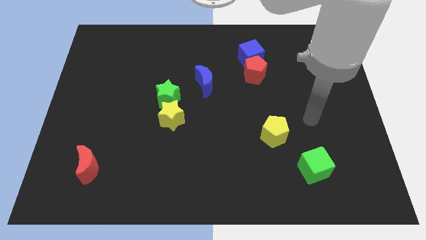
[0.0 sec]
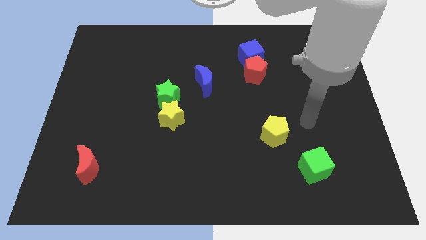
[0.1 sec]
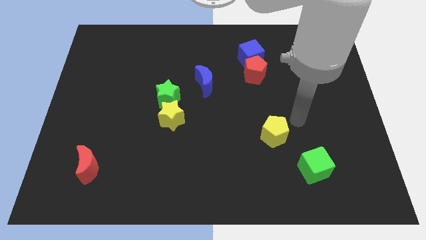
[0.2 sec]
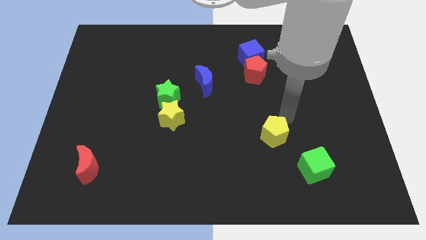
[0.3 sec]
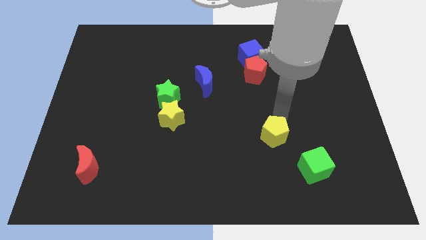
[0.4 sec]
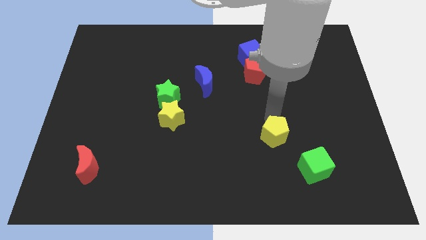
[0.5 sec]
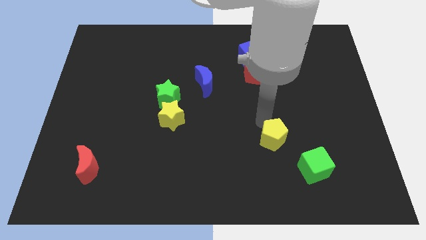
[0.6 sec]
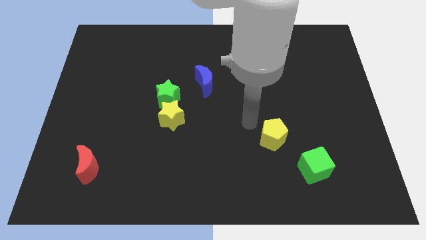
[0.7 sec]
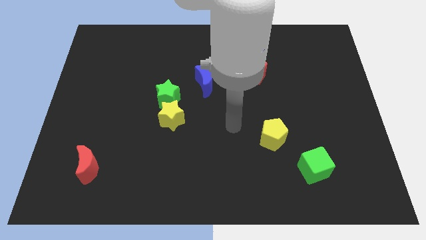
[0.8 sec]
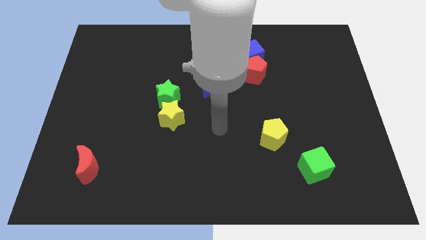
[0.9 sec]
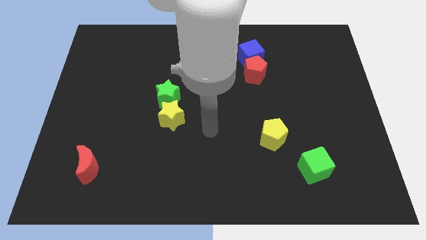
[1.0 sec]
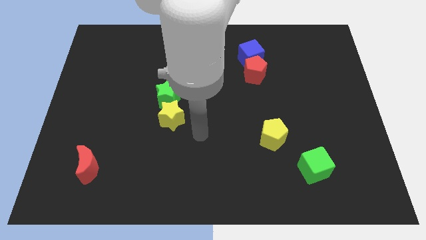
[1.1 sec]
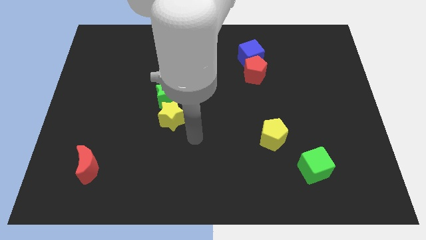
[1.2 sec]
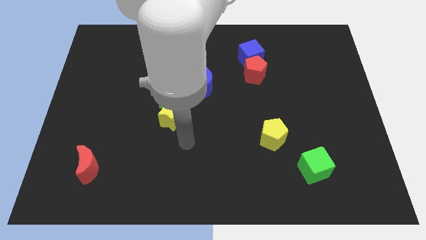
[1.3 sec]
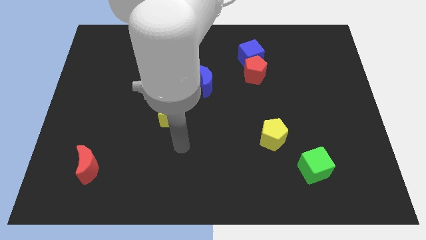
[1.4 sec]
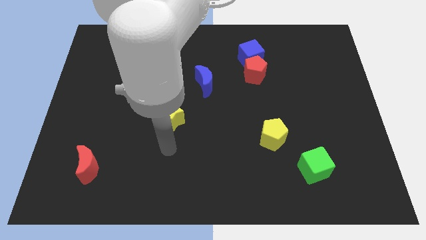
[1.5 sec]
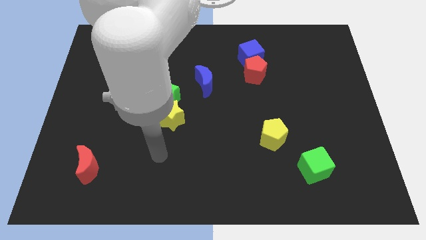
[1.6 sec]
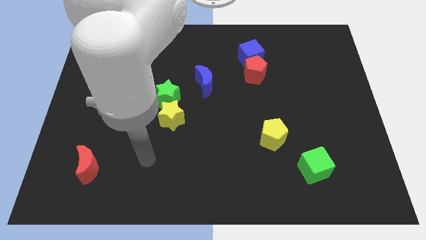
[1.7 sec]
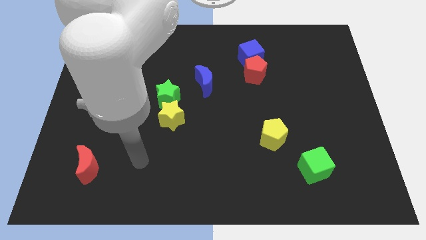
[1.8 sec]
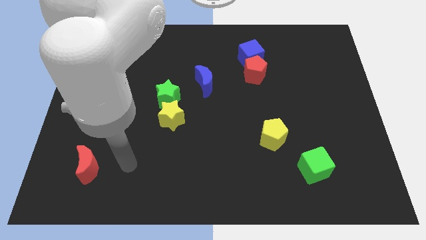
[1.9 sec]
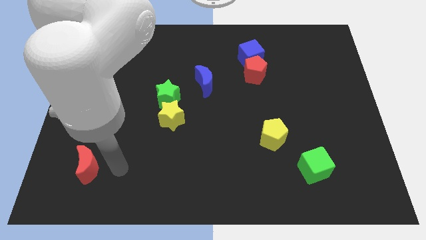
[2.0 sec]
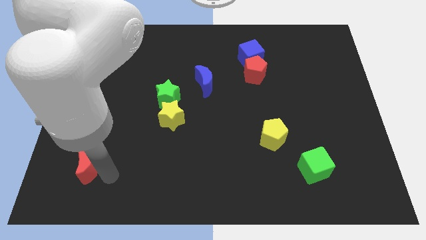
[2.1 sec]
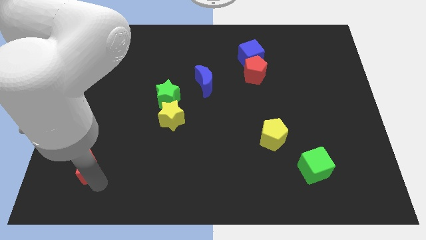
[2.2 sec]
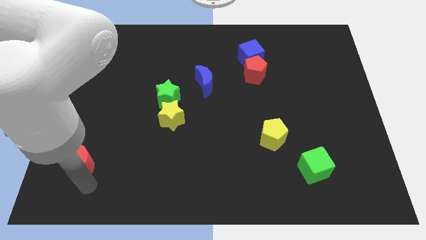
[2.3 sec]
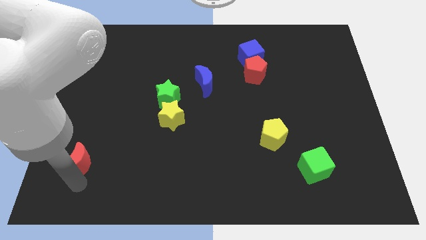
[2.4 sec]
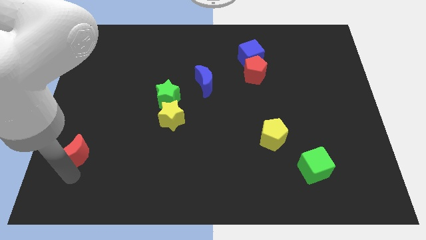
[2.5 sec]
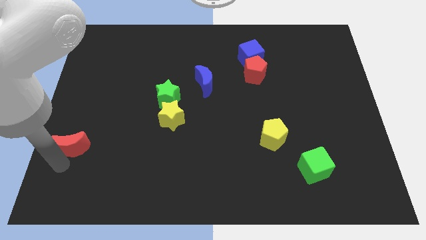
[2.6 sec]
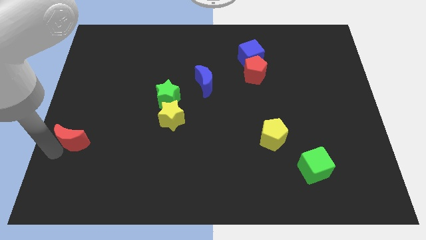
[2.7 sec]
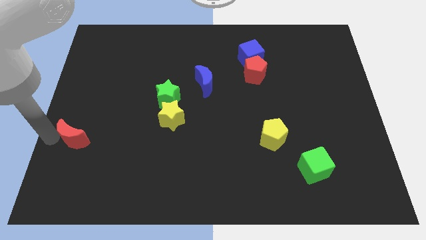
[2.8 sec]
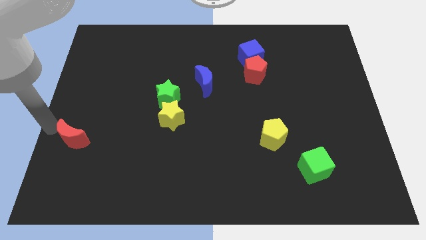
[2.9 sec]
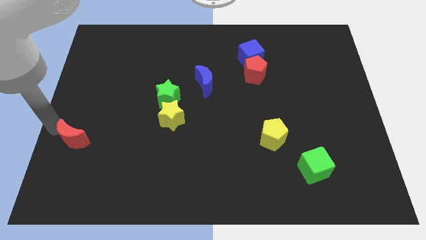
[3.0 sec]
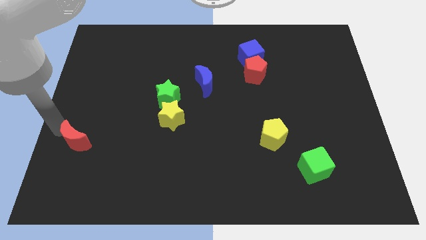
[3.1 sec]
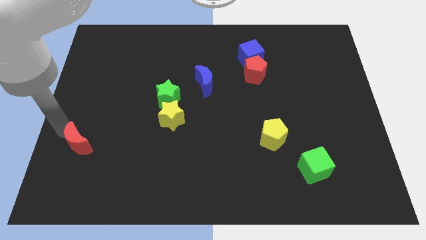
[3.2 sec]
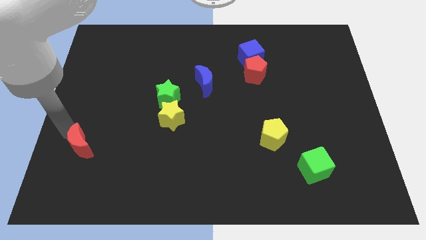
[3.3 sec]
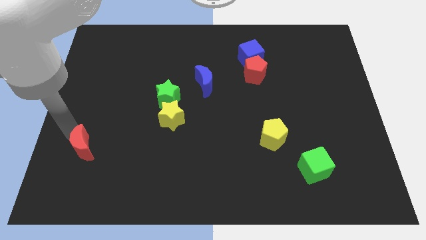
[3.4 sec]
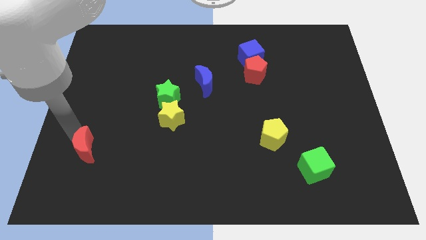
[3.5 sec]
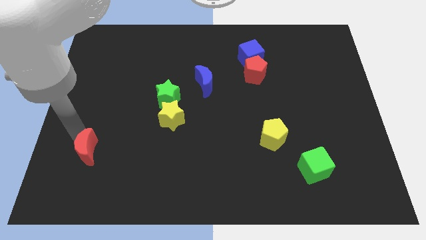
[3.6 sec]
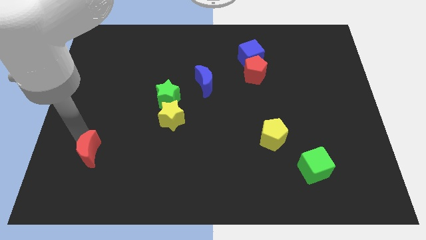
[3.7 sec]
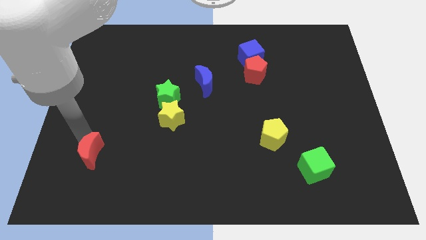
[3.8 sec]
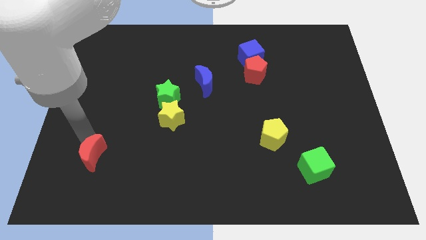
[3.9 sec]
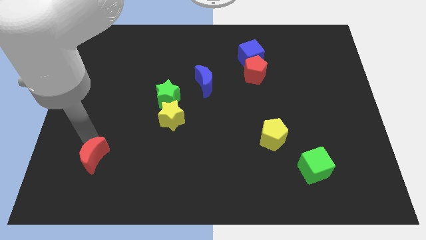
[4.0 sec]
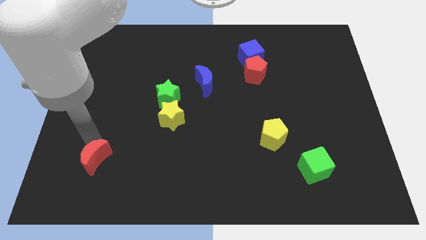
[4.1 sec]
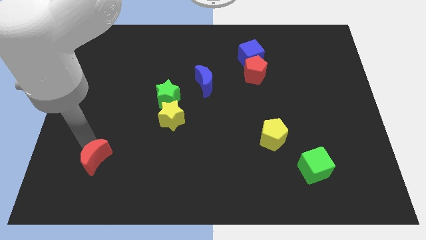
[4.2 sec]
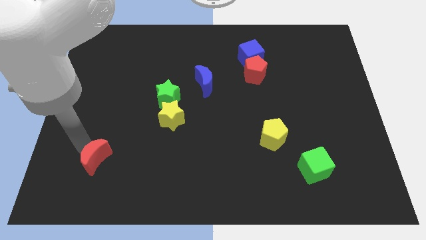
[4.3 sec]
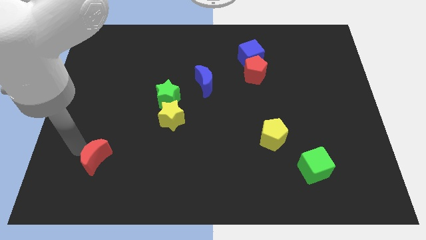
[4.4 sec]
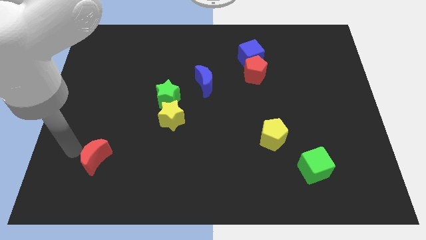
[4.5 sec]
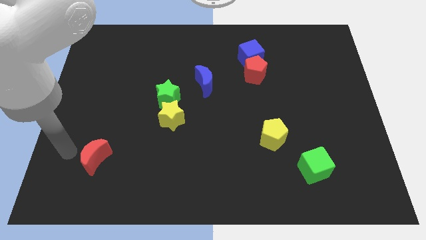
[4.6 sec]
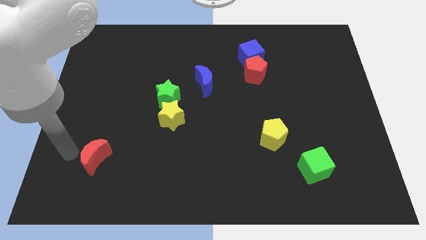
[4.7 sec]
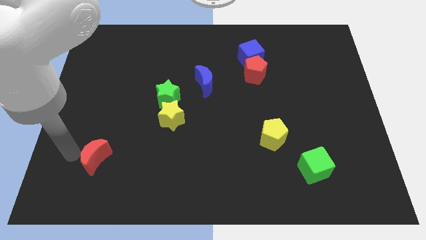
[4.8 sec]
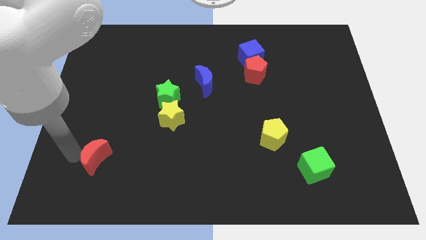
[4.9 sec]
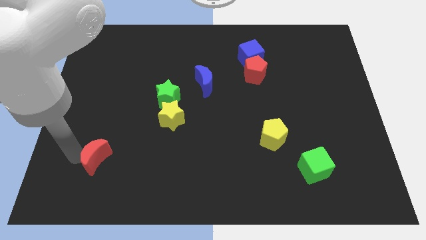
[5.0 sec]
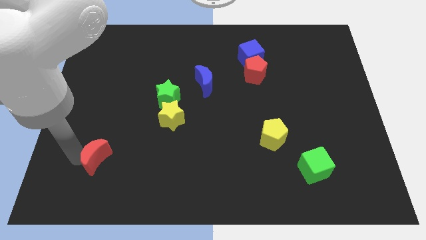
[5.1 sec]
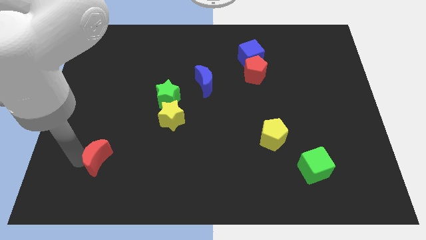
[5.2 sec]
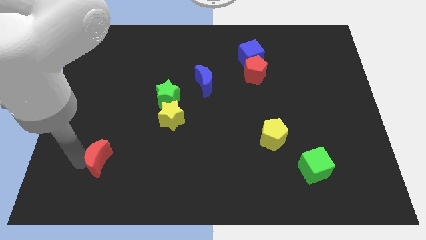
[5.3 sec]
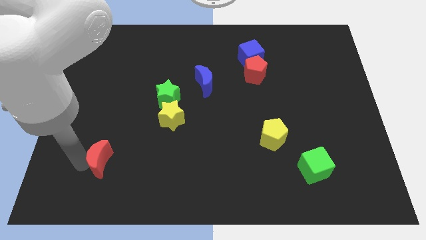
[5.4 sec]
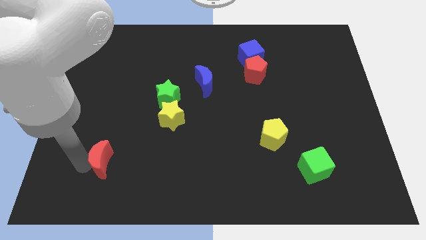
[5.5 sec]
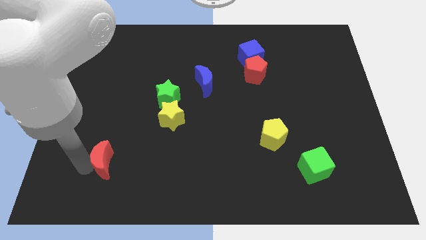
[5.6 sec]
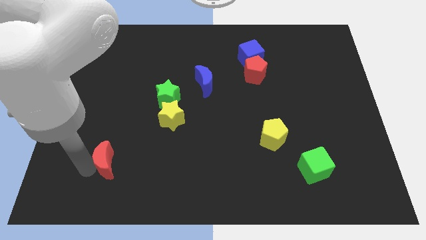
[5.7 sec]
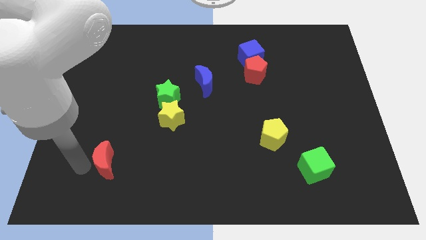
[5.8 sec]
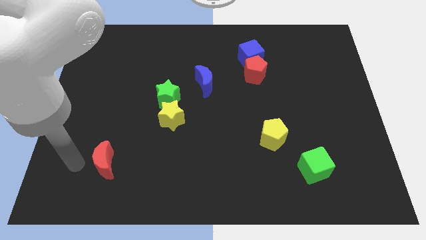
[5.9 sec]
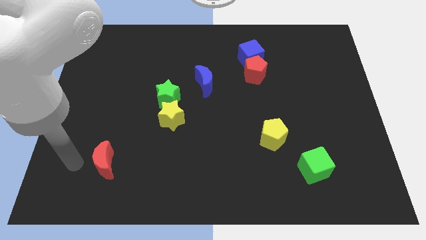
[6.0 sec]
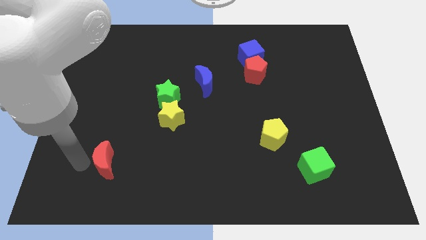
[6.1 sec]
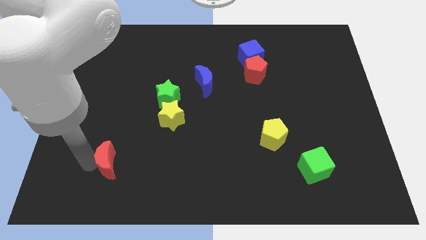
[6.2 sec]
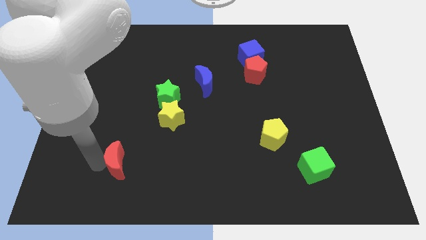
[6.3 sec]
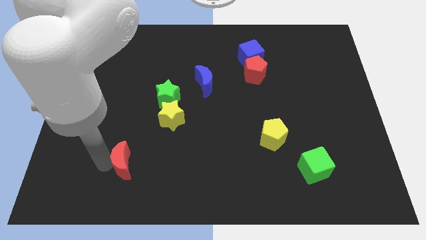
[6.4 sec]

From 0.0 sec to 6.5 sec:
slide the red moon somewhat right

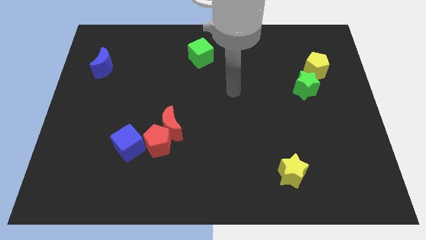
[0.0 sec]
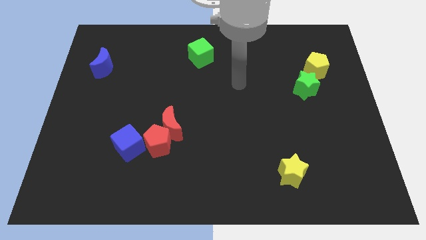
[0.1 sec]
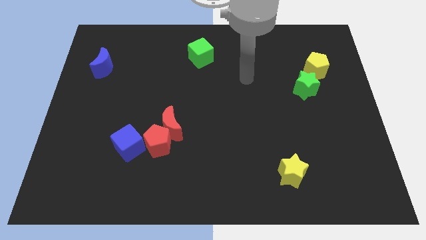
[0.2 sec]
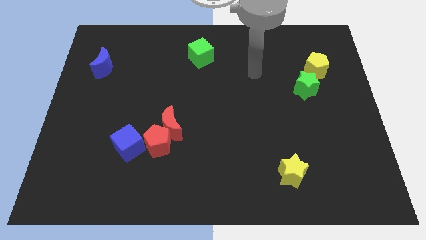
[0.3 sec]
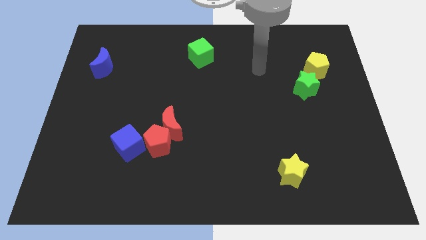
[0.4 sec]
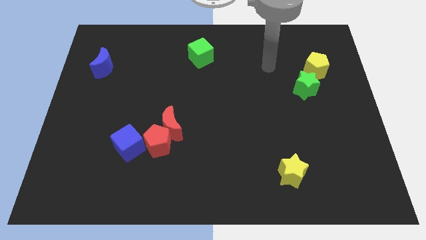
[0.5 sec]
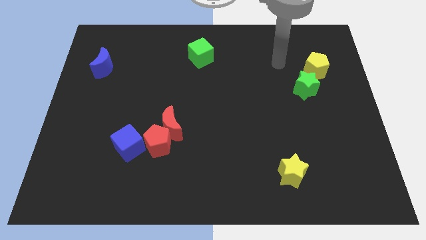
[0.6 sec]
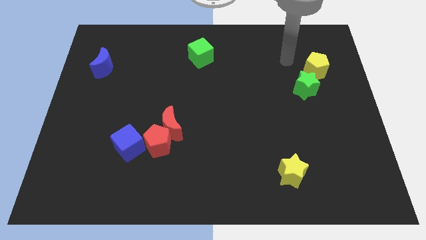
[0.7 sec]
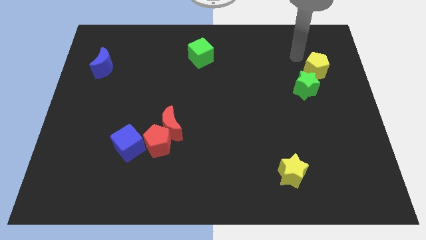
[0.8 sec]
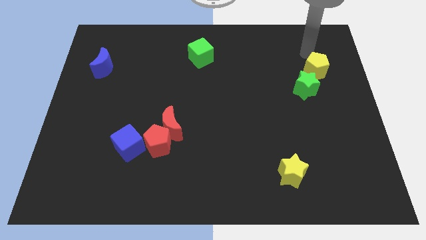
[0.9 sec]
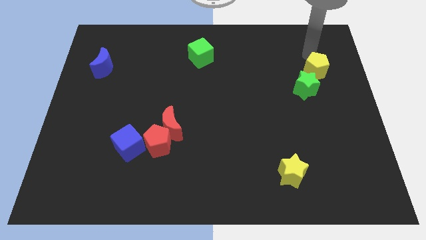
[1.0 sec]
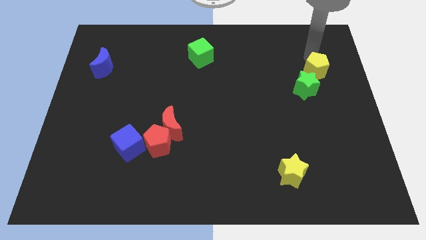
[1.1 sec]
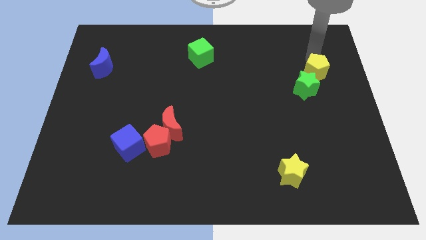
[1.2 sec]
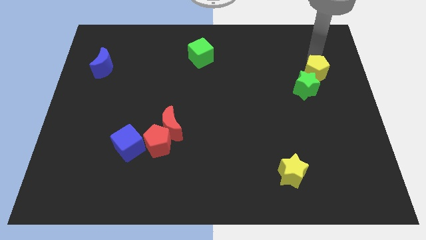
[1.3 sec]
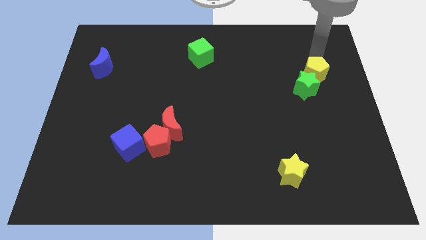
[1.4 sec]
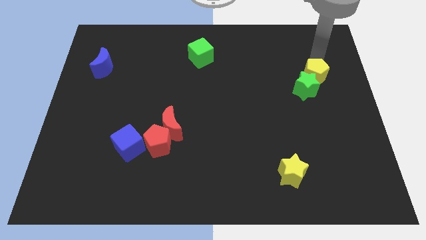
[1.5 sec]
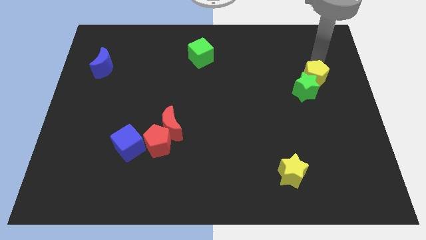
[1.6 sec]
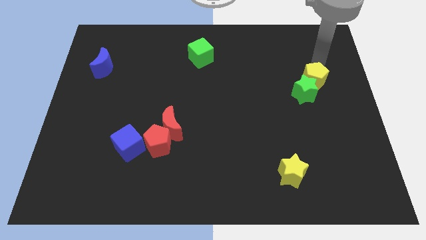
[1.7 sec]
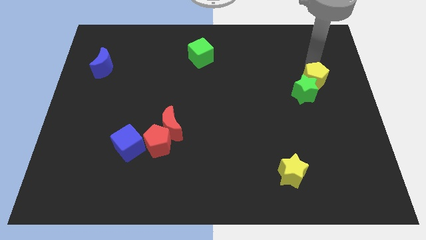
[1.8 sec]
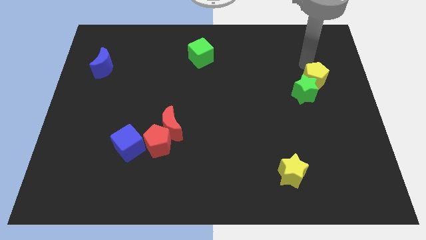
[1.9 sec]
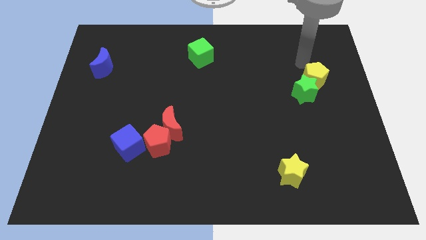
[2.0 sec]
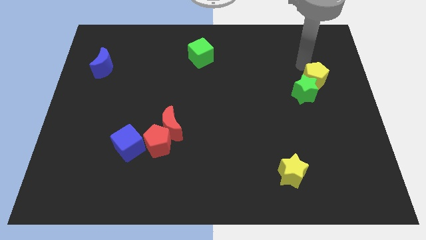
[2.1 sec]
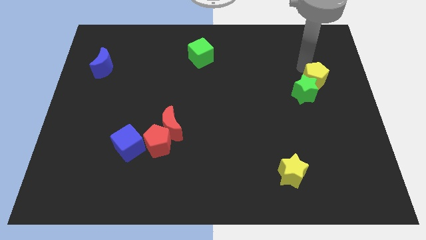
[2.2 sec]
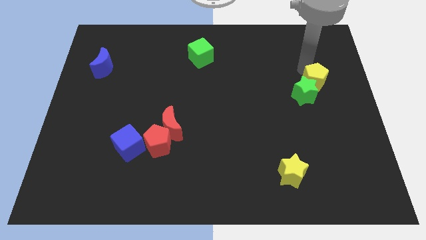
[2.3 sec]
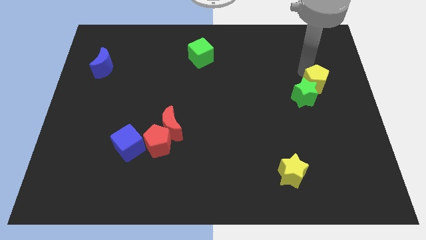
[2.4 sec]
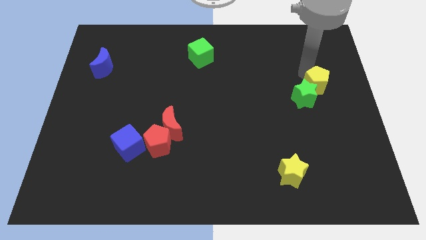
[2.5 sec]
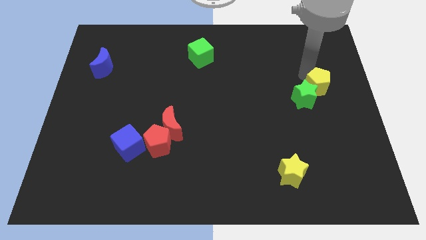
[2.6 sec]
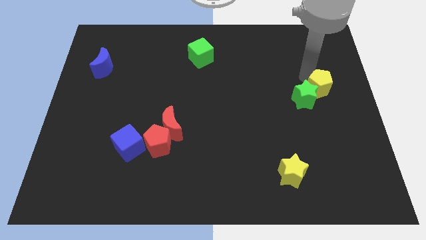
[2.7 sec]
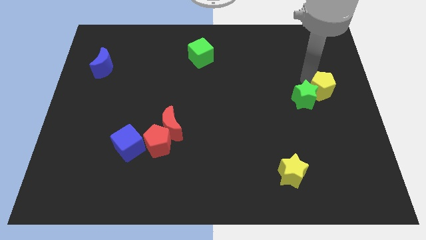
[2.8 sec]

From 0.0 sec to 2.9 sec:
slightly push the yellow pentagon down
